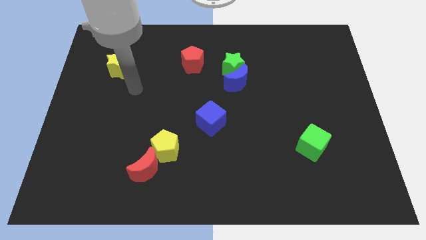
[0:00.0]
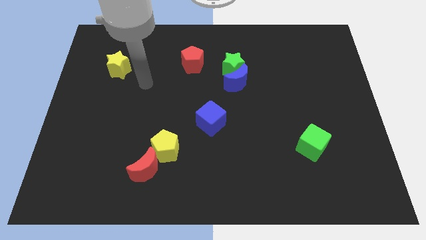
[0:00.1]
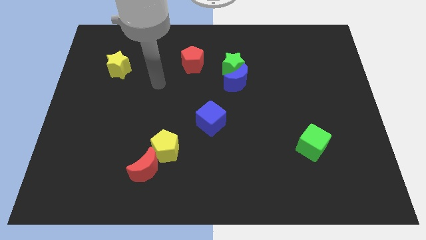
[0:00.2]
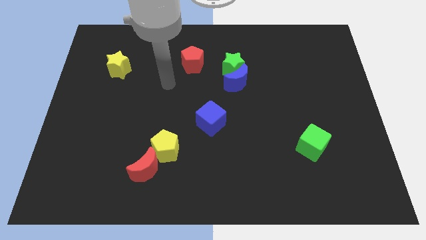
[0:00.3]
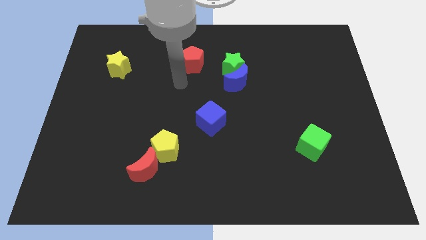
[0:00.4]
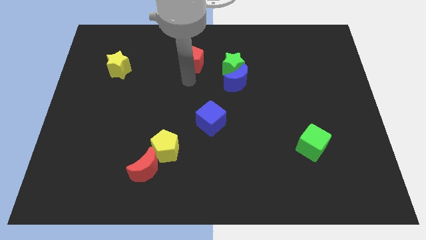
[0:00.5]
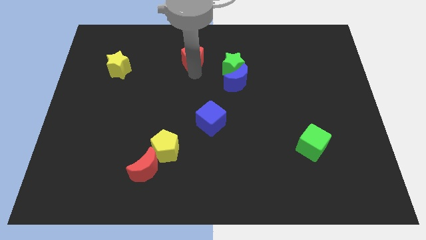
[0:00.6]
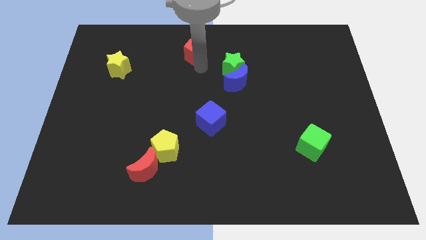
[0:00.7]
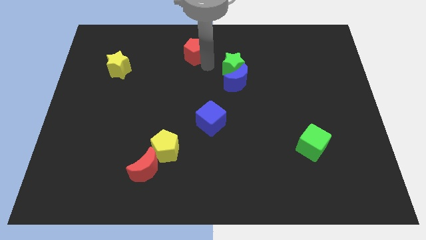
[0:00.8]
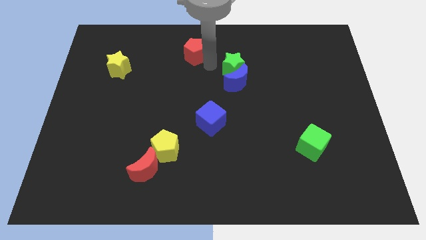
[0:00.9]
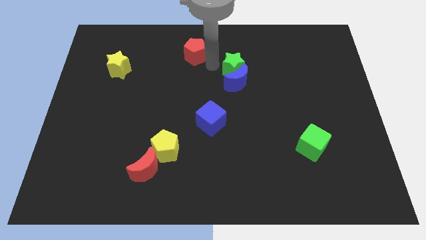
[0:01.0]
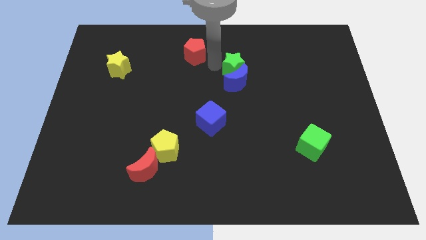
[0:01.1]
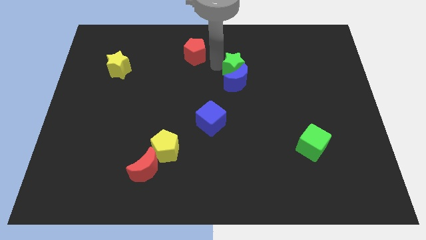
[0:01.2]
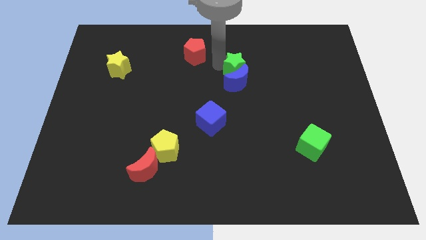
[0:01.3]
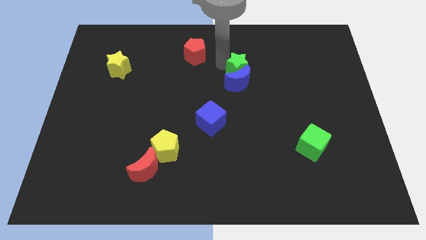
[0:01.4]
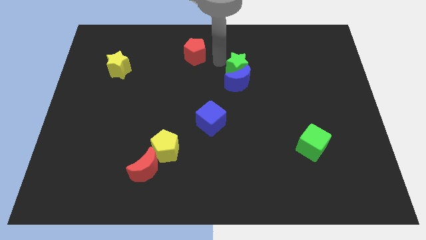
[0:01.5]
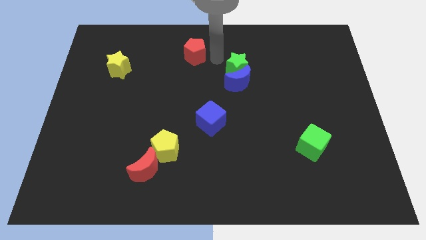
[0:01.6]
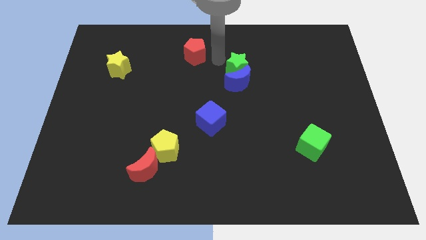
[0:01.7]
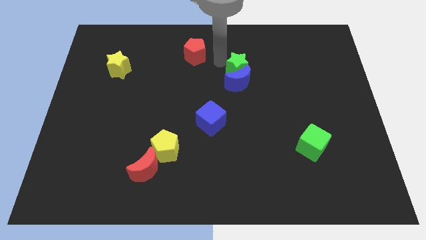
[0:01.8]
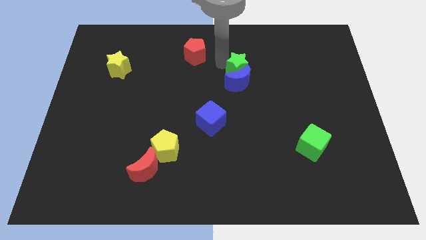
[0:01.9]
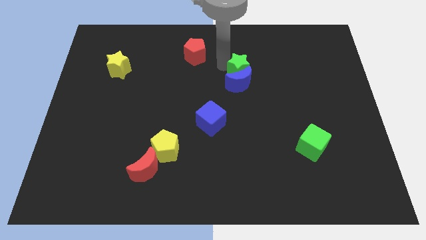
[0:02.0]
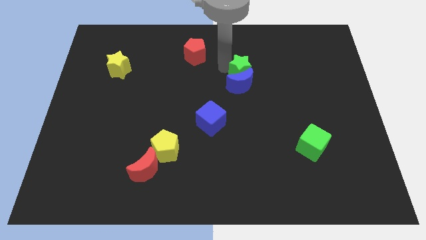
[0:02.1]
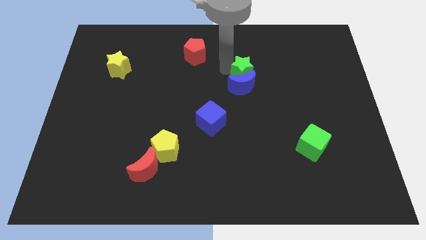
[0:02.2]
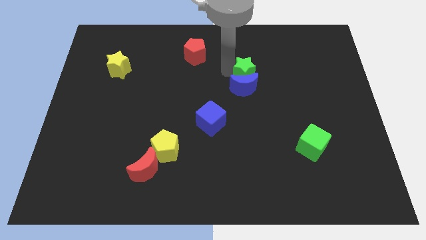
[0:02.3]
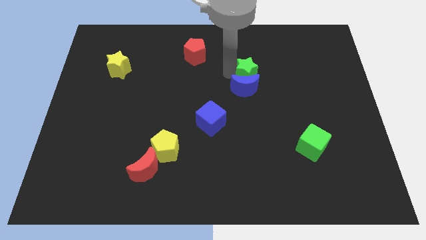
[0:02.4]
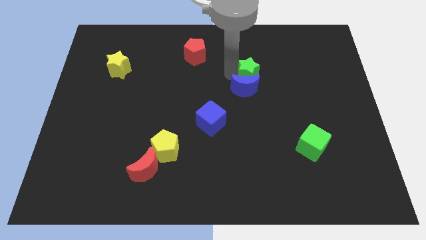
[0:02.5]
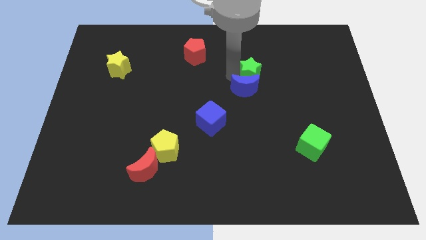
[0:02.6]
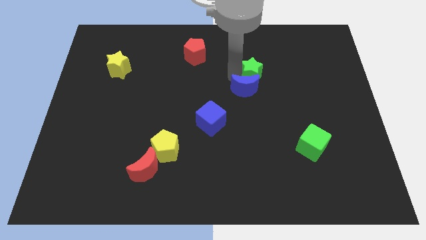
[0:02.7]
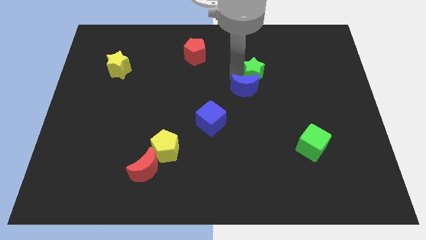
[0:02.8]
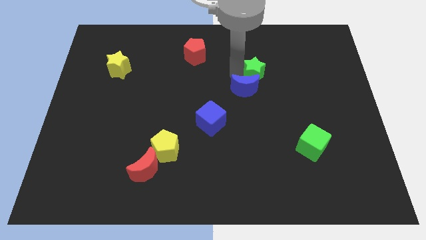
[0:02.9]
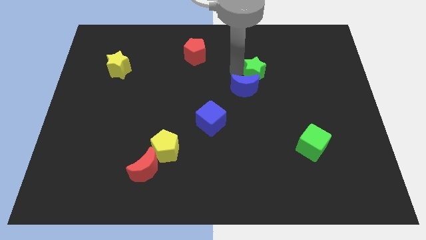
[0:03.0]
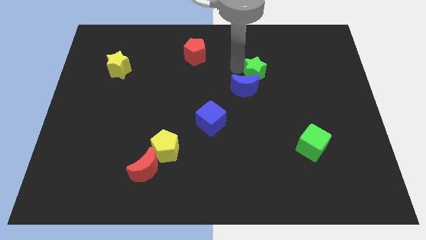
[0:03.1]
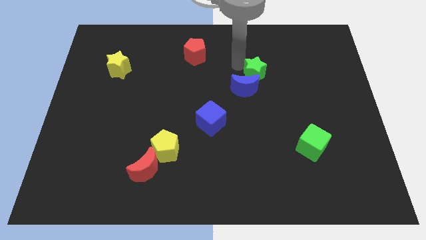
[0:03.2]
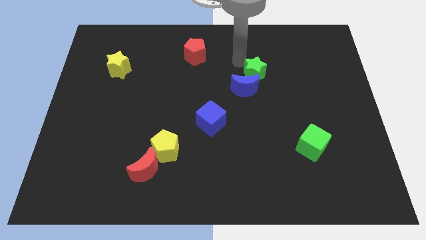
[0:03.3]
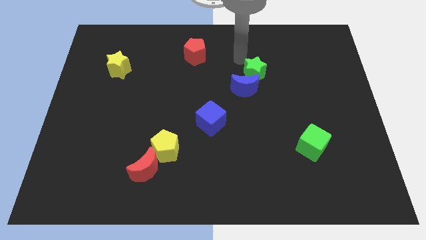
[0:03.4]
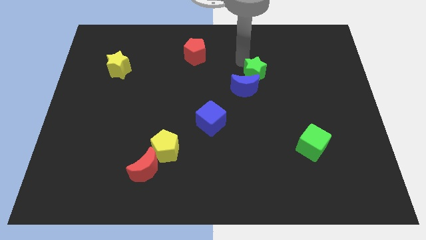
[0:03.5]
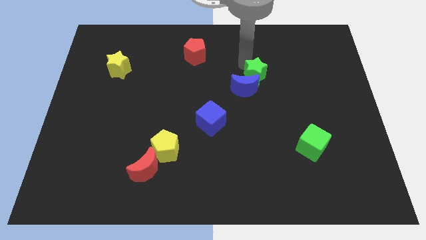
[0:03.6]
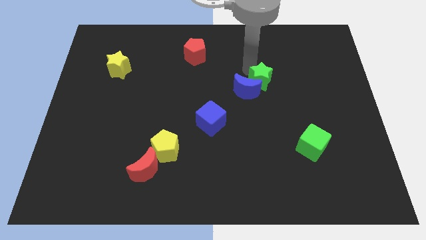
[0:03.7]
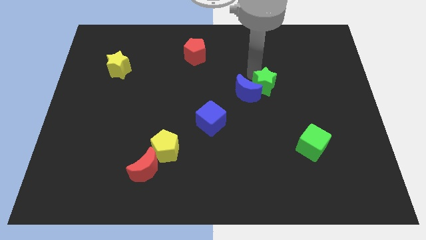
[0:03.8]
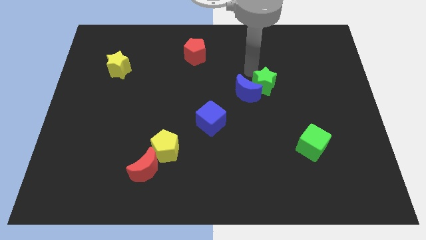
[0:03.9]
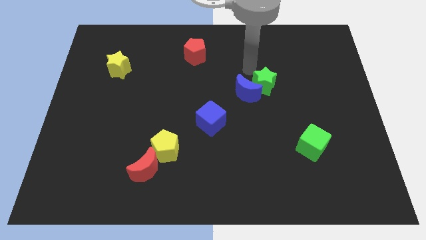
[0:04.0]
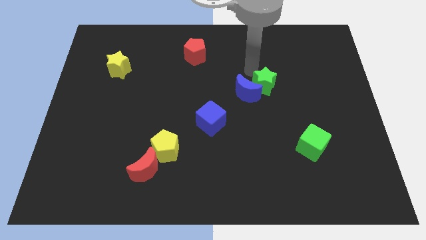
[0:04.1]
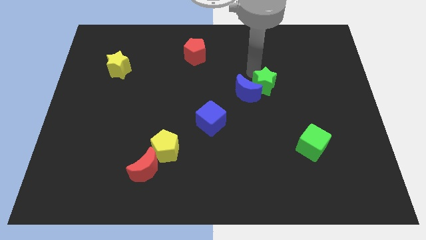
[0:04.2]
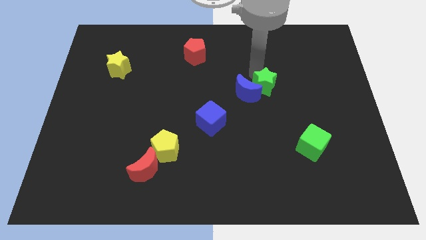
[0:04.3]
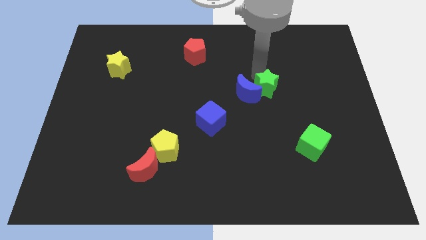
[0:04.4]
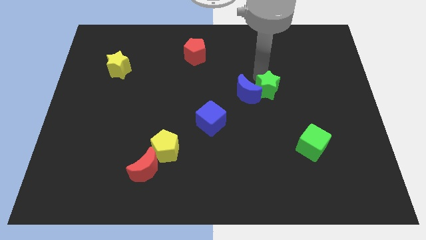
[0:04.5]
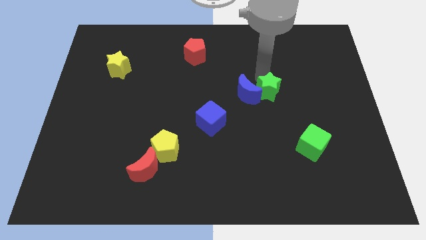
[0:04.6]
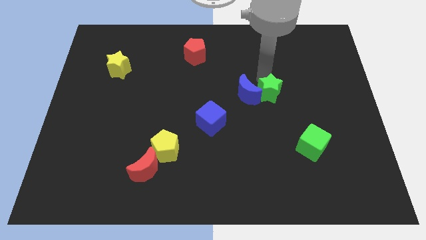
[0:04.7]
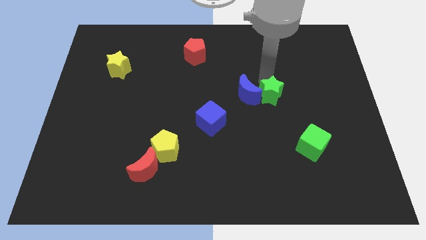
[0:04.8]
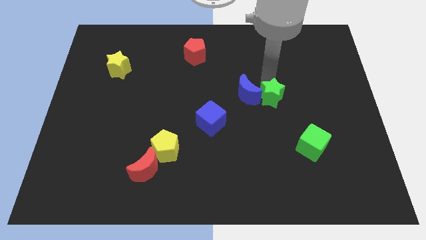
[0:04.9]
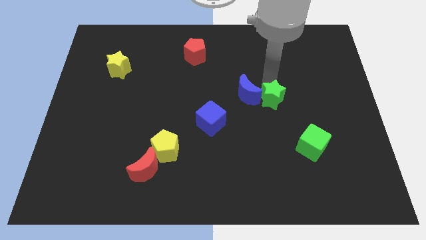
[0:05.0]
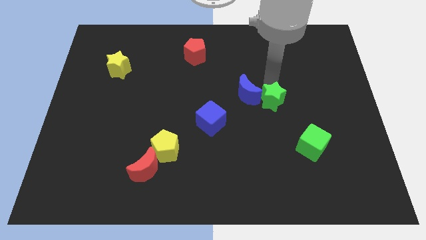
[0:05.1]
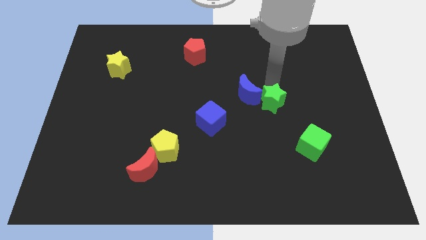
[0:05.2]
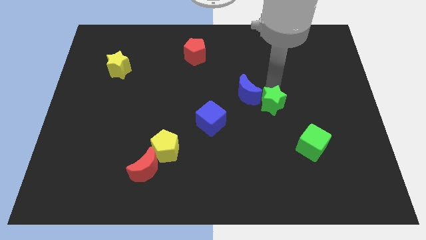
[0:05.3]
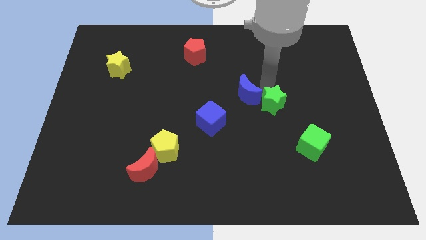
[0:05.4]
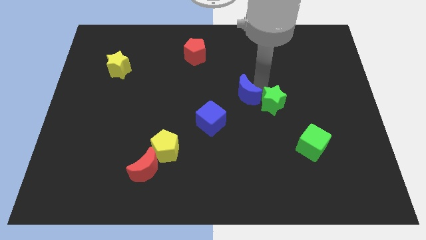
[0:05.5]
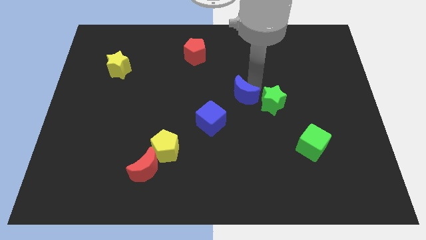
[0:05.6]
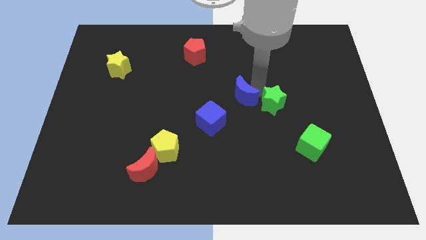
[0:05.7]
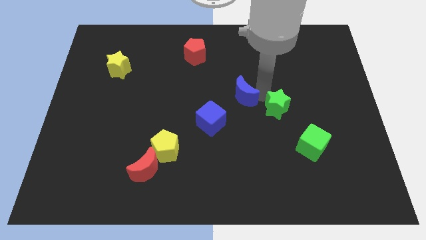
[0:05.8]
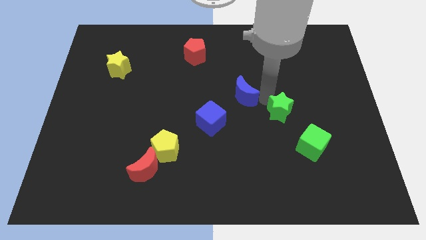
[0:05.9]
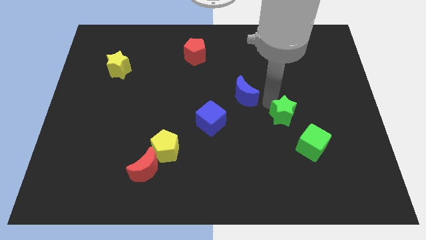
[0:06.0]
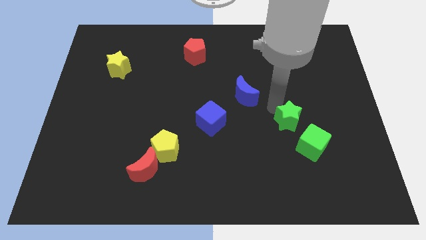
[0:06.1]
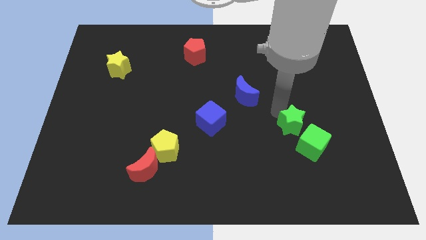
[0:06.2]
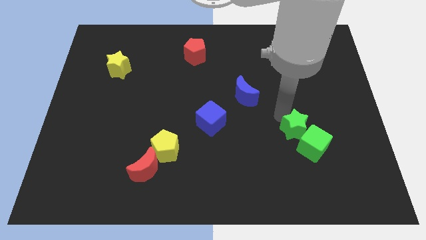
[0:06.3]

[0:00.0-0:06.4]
push the green star next to the green cube

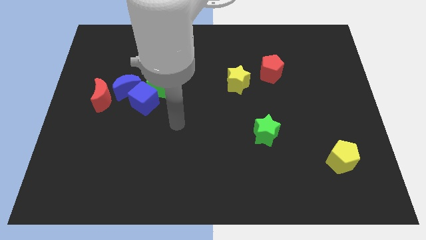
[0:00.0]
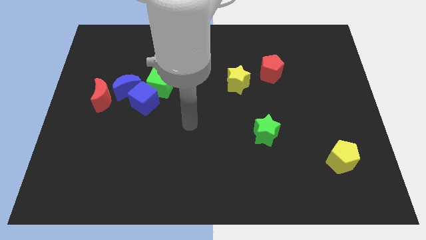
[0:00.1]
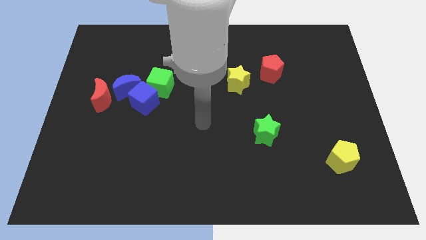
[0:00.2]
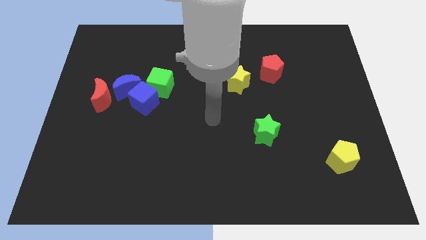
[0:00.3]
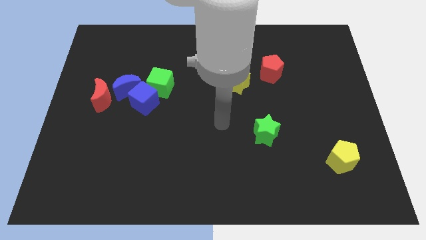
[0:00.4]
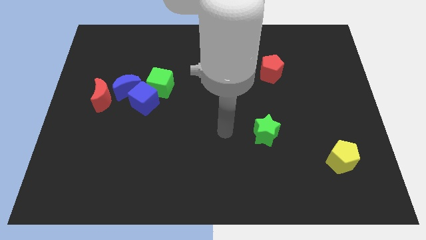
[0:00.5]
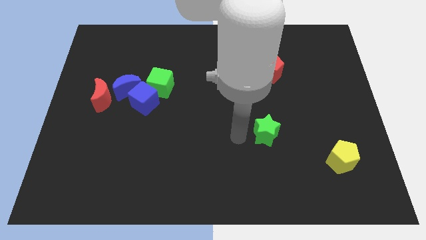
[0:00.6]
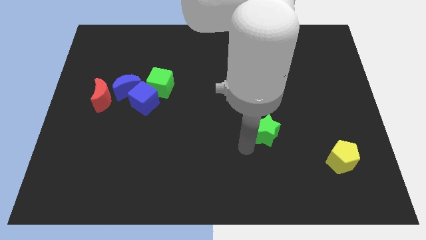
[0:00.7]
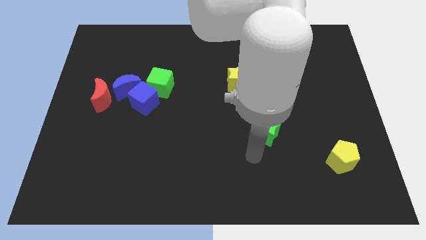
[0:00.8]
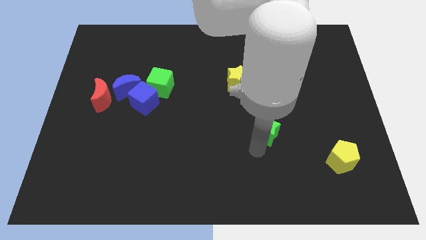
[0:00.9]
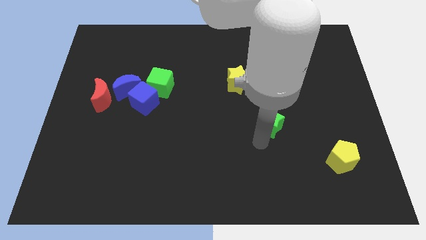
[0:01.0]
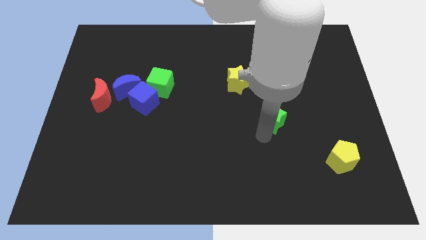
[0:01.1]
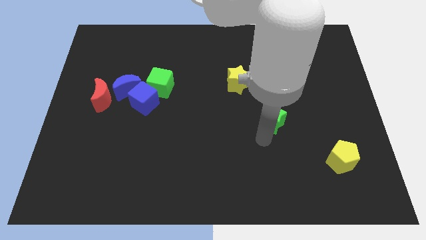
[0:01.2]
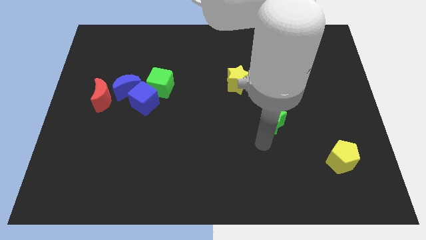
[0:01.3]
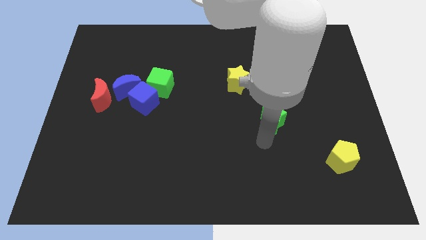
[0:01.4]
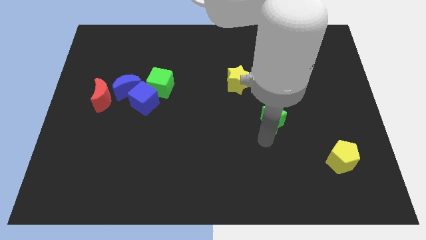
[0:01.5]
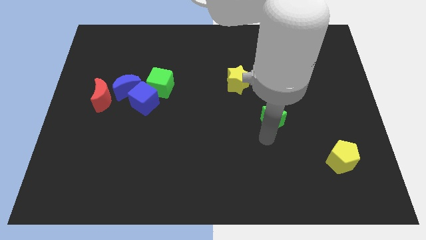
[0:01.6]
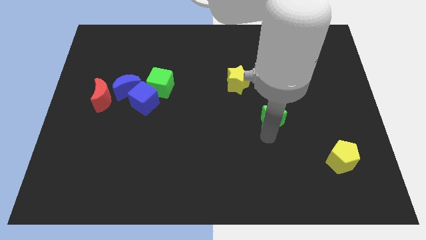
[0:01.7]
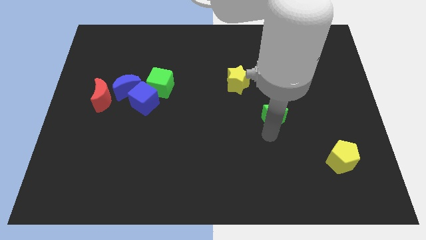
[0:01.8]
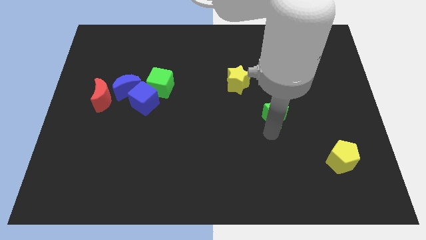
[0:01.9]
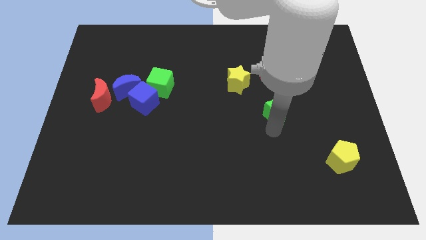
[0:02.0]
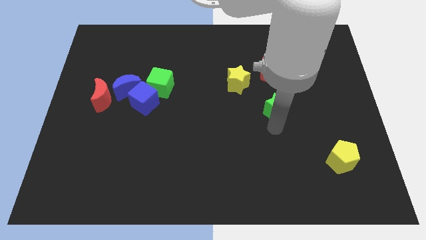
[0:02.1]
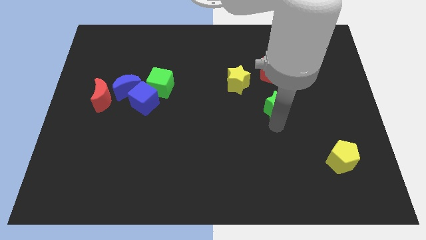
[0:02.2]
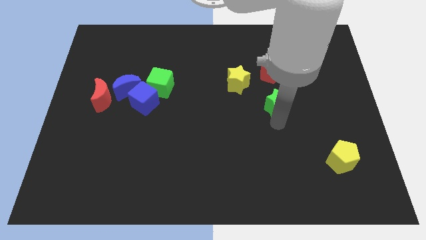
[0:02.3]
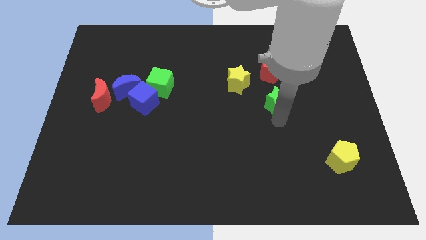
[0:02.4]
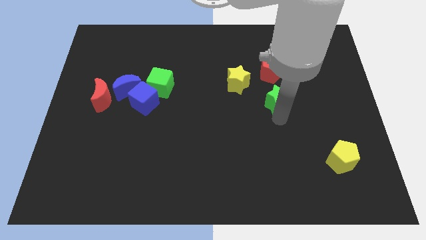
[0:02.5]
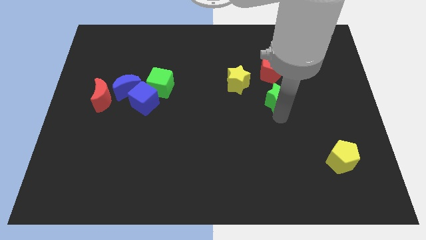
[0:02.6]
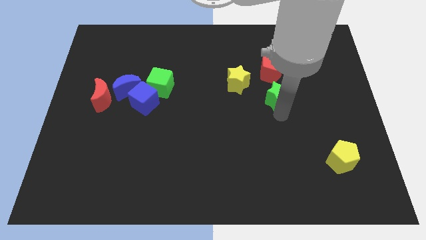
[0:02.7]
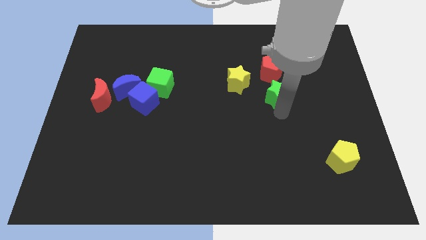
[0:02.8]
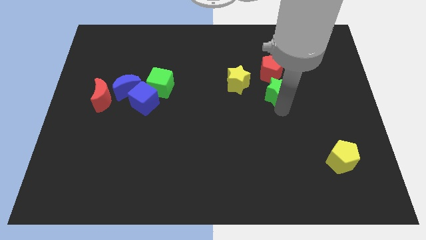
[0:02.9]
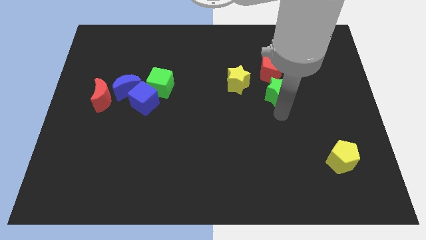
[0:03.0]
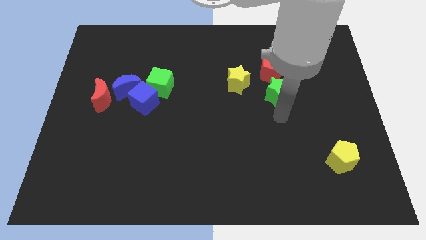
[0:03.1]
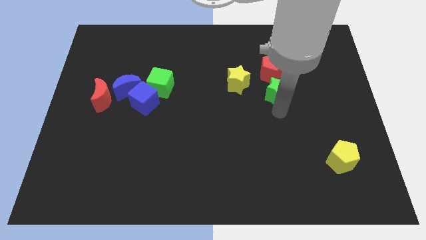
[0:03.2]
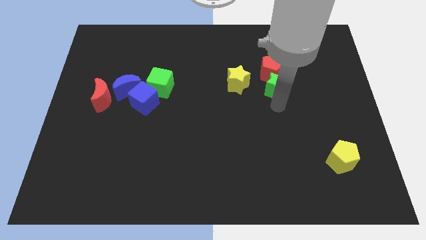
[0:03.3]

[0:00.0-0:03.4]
push the green star next to the red pentagon
